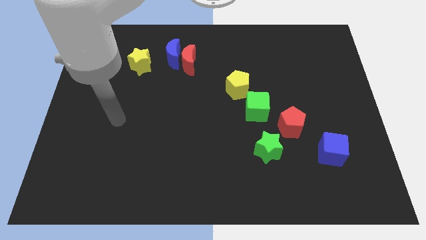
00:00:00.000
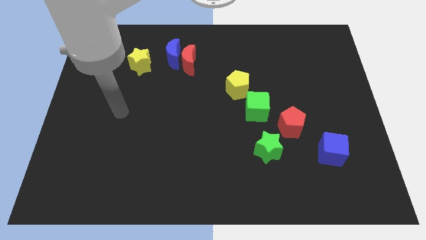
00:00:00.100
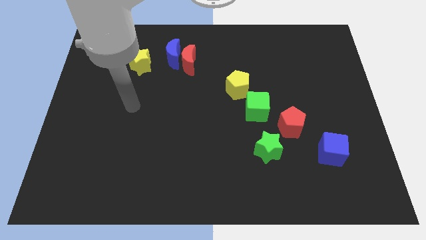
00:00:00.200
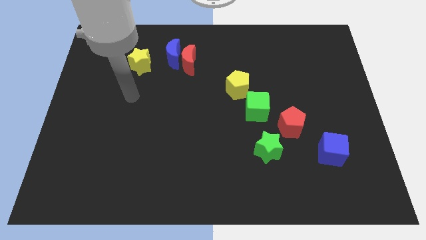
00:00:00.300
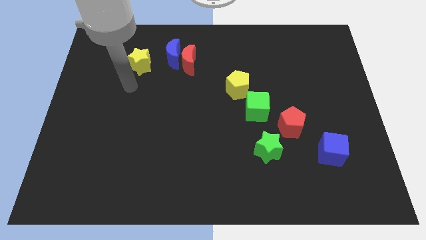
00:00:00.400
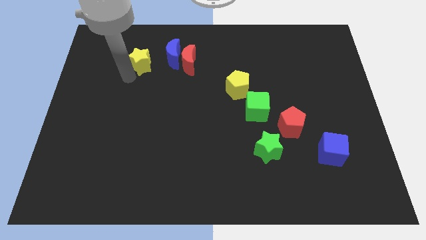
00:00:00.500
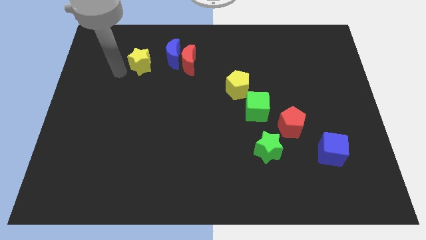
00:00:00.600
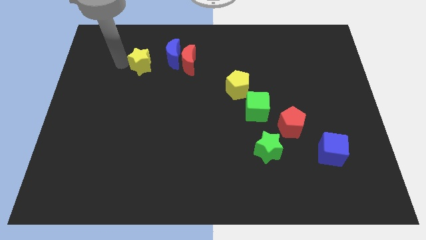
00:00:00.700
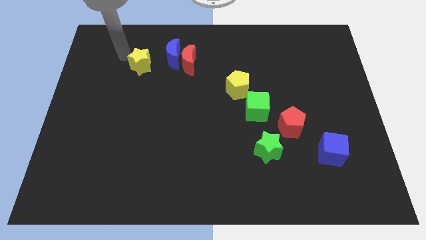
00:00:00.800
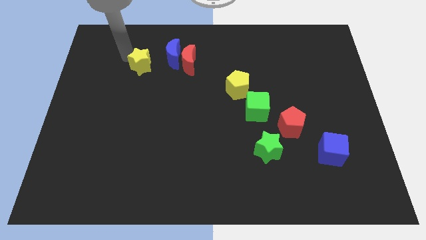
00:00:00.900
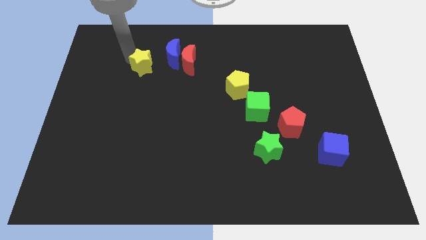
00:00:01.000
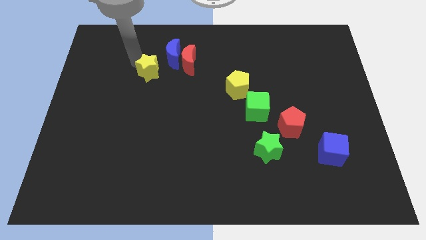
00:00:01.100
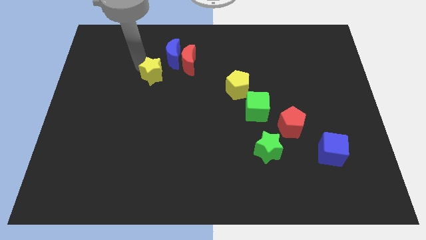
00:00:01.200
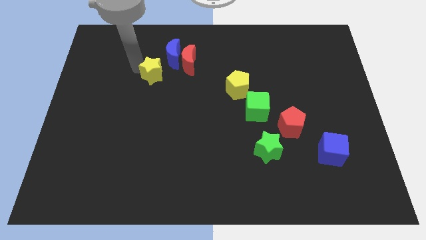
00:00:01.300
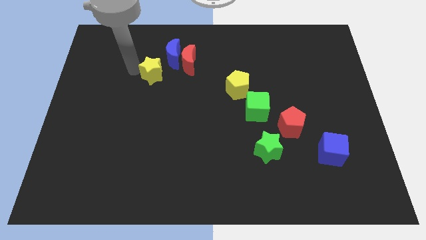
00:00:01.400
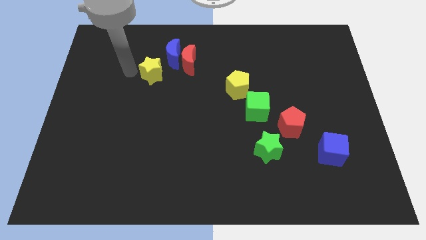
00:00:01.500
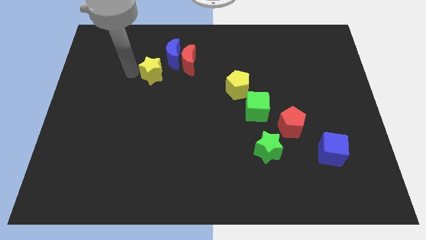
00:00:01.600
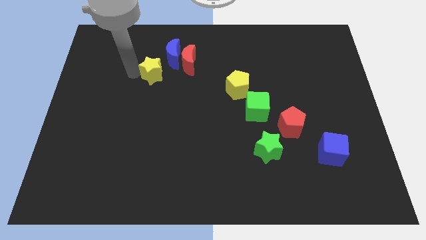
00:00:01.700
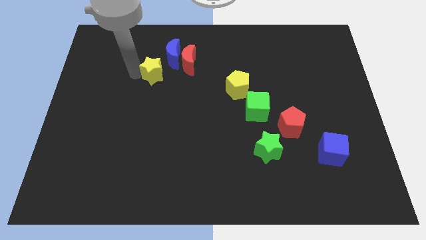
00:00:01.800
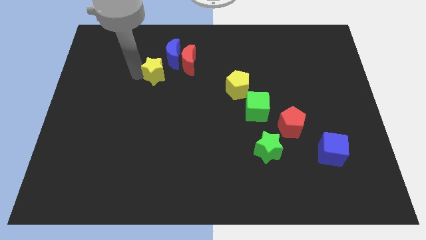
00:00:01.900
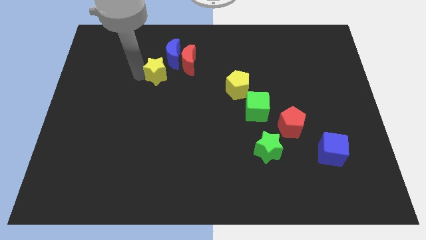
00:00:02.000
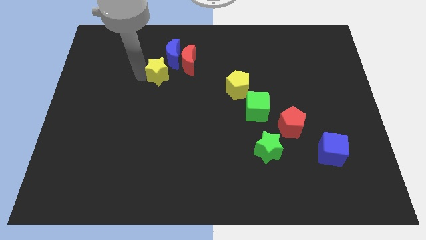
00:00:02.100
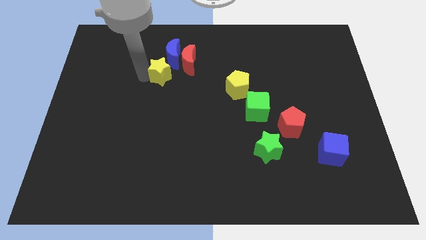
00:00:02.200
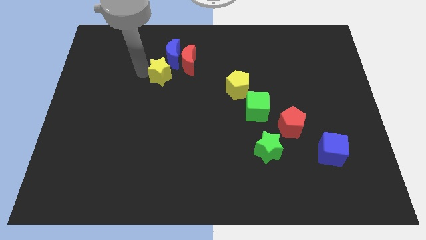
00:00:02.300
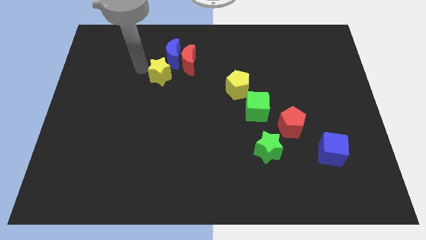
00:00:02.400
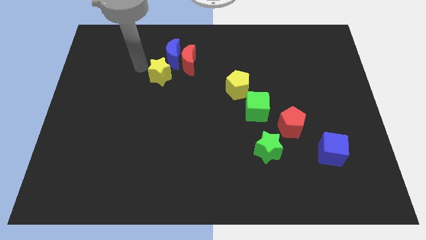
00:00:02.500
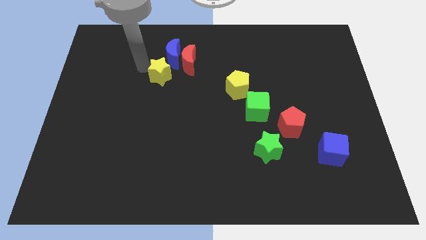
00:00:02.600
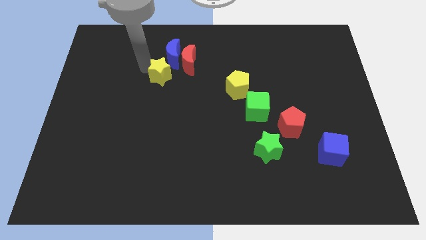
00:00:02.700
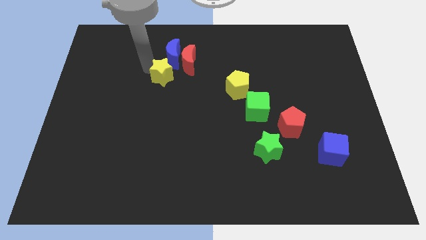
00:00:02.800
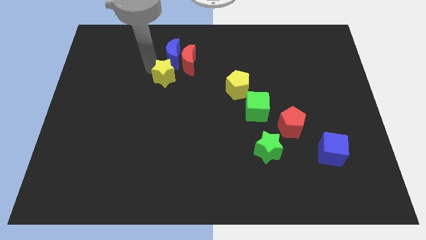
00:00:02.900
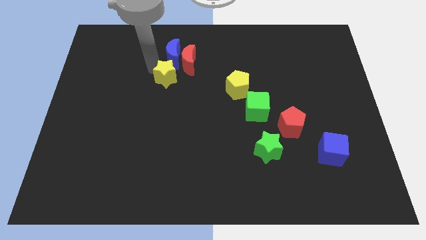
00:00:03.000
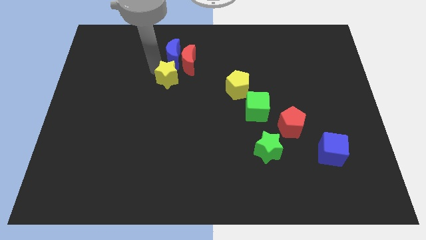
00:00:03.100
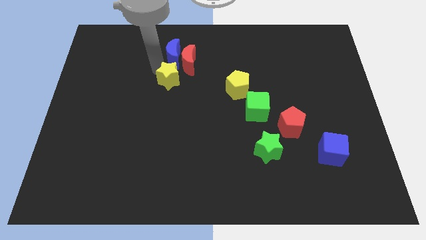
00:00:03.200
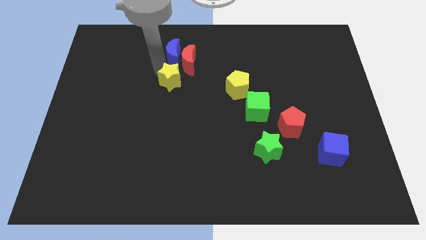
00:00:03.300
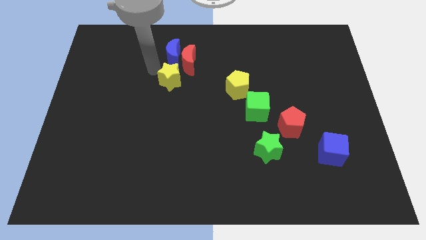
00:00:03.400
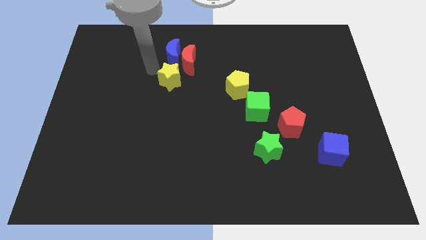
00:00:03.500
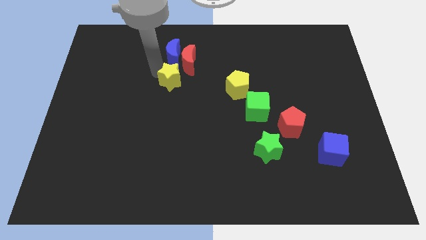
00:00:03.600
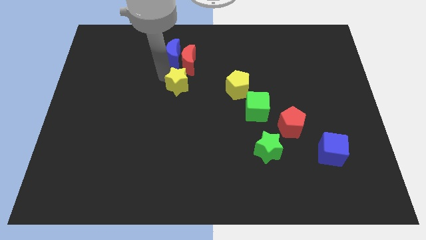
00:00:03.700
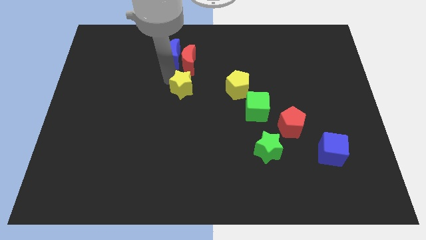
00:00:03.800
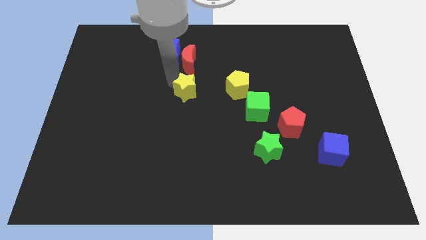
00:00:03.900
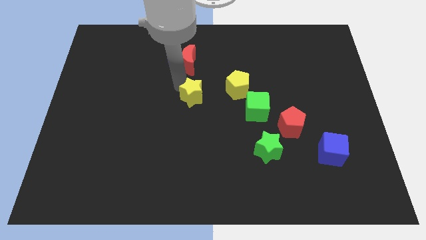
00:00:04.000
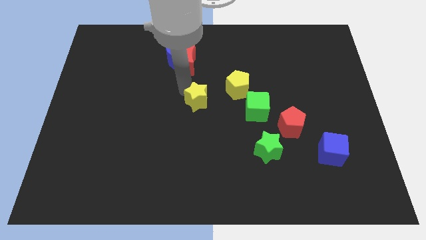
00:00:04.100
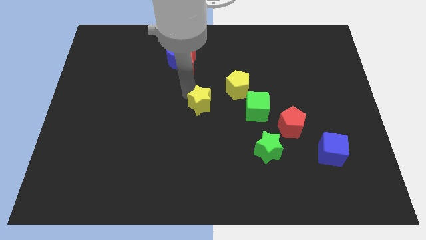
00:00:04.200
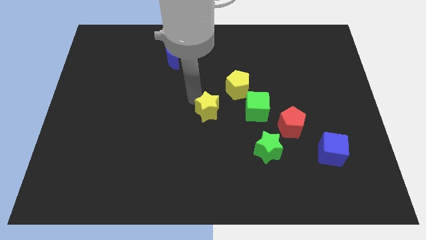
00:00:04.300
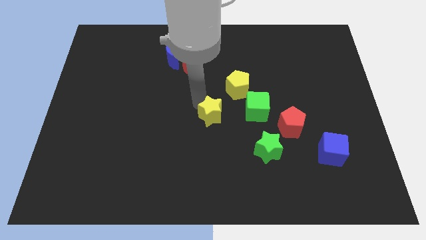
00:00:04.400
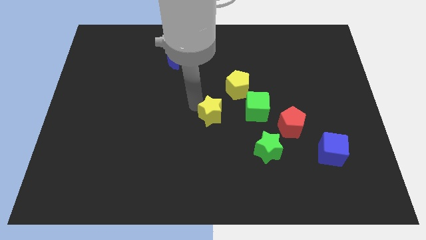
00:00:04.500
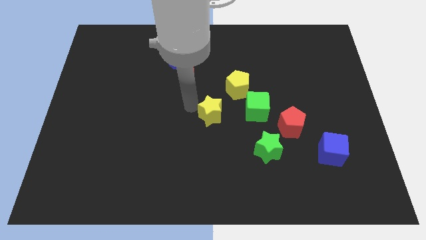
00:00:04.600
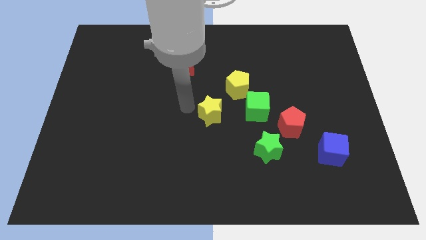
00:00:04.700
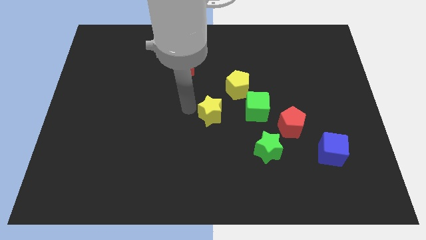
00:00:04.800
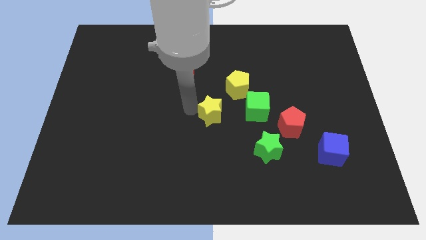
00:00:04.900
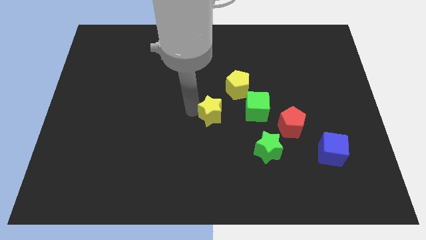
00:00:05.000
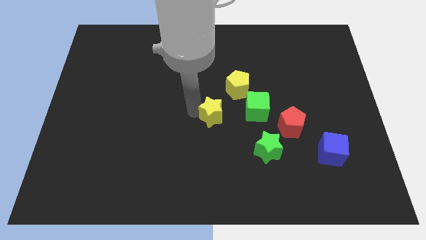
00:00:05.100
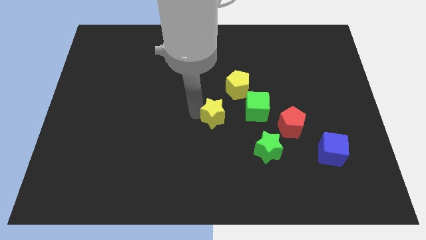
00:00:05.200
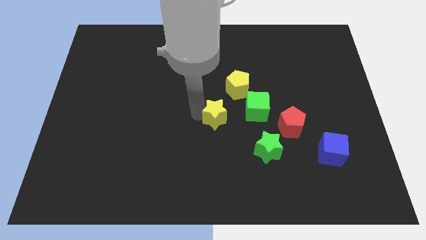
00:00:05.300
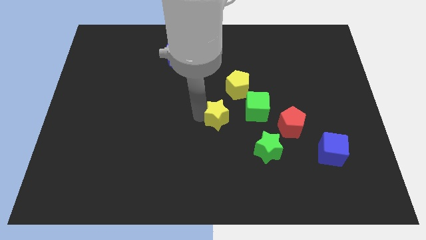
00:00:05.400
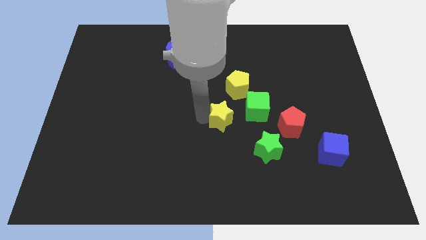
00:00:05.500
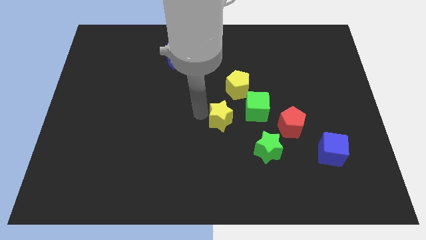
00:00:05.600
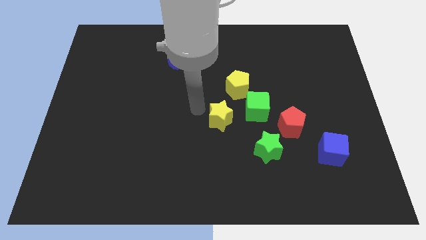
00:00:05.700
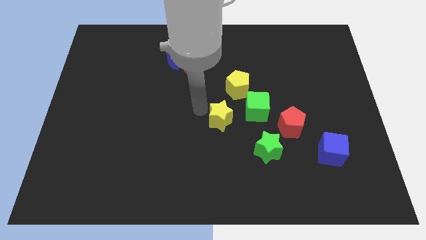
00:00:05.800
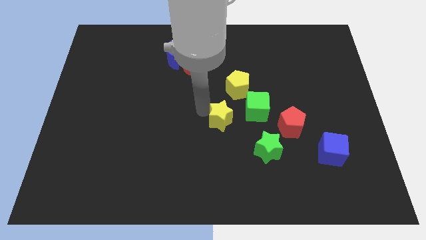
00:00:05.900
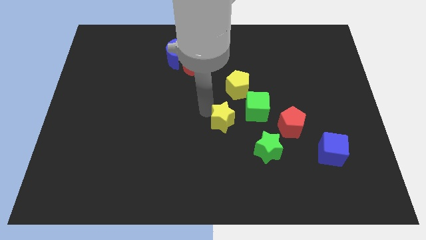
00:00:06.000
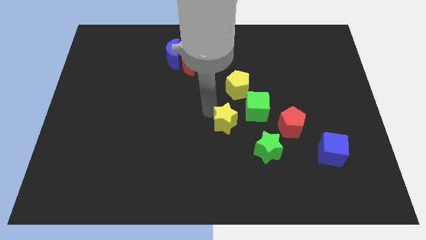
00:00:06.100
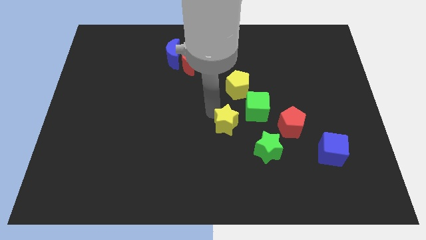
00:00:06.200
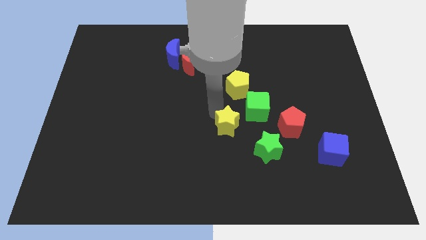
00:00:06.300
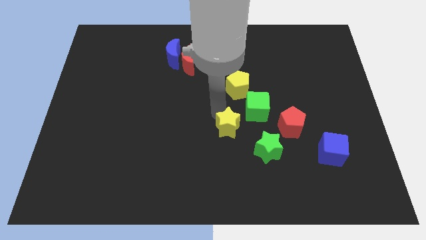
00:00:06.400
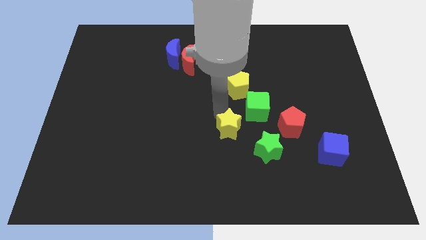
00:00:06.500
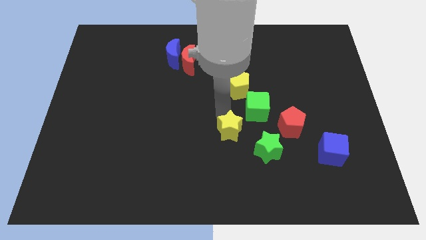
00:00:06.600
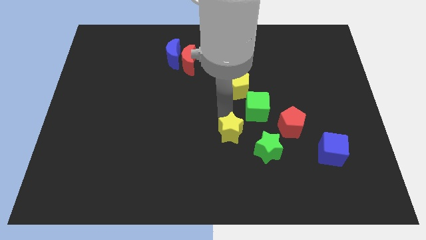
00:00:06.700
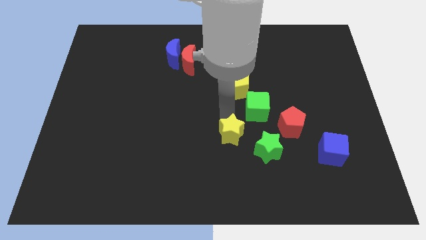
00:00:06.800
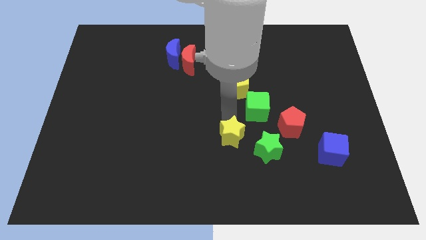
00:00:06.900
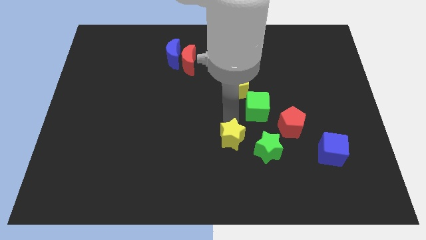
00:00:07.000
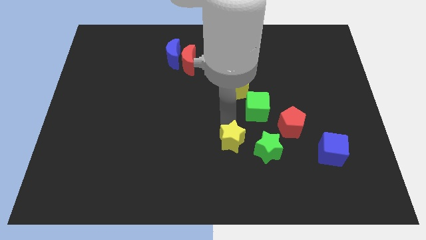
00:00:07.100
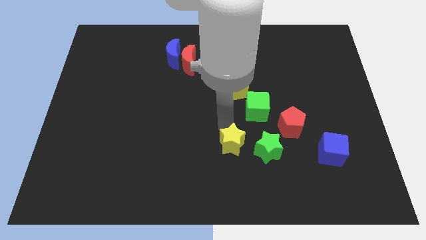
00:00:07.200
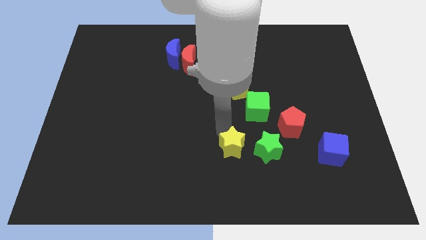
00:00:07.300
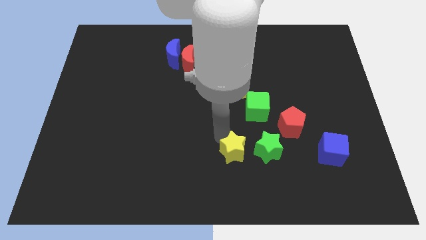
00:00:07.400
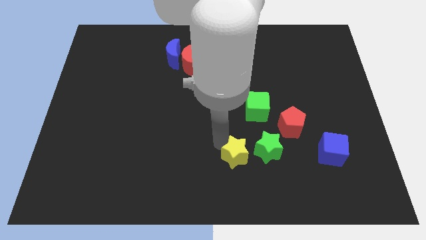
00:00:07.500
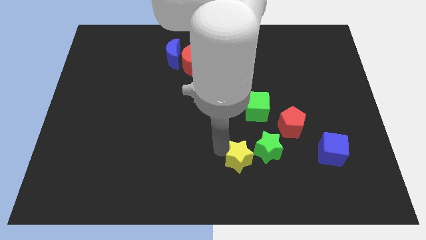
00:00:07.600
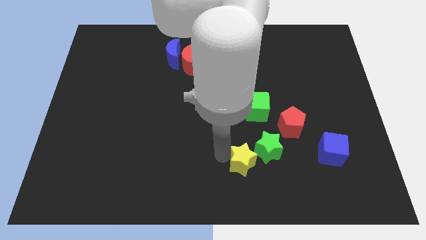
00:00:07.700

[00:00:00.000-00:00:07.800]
slide the yellow star towards the green star
